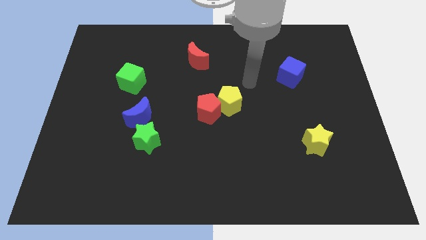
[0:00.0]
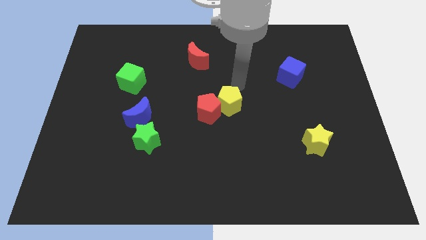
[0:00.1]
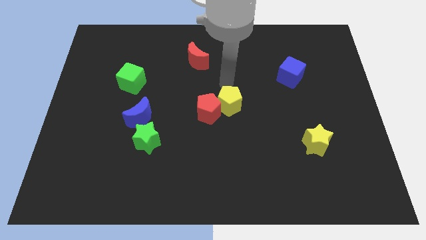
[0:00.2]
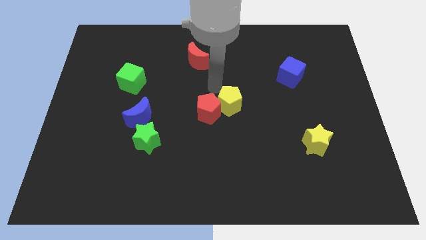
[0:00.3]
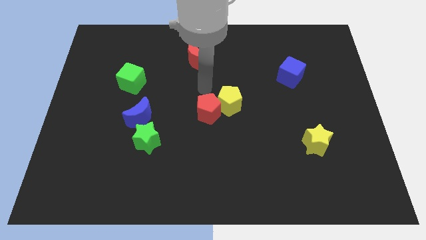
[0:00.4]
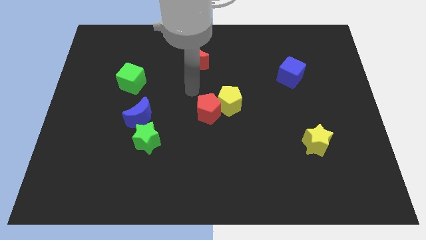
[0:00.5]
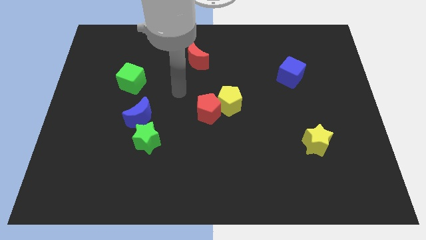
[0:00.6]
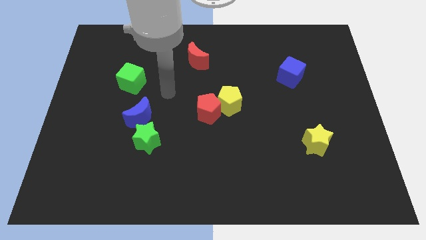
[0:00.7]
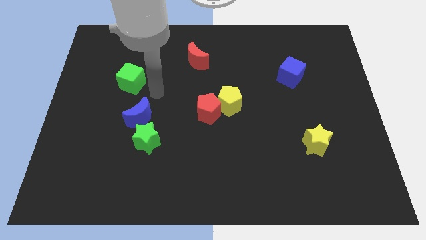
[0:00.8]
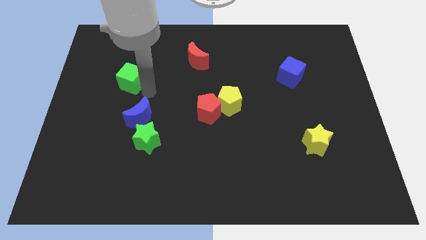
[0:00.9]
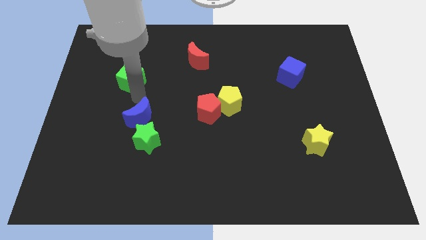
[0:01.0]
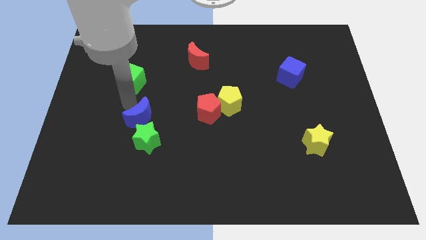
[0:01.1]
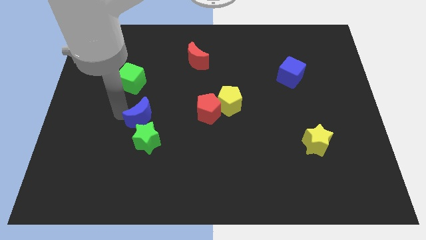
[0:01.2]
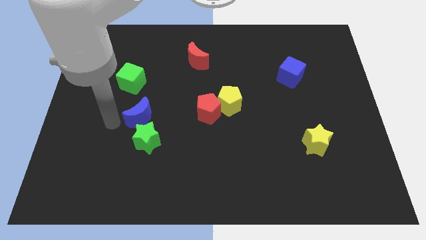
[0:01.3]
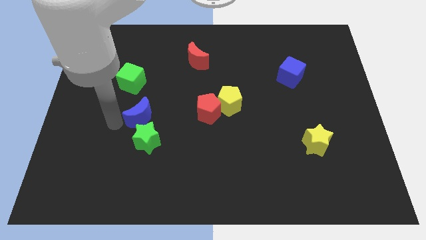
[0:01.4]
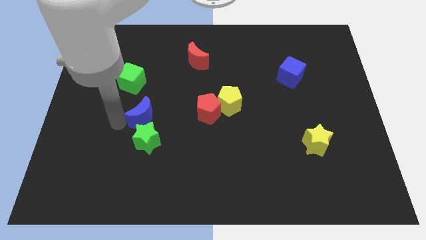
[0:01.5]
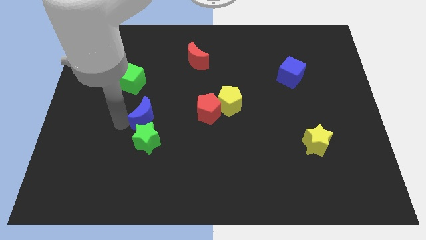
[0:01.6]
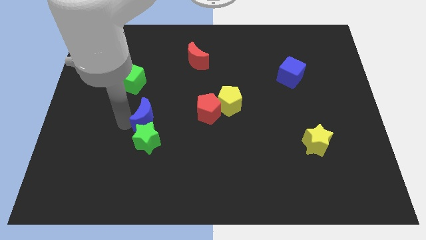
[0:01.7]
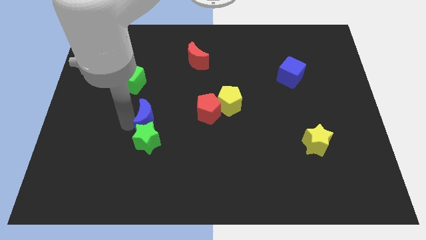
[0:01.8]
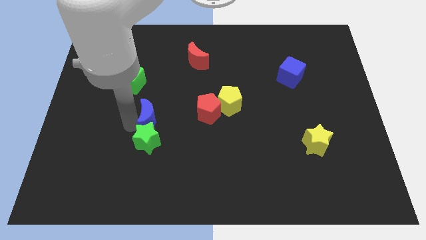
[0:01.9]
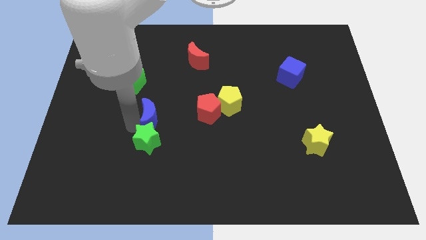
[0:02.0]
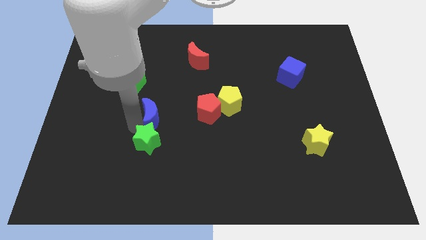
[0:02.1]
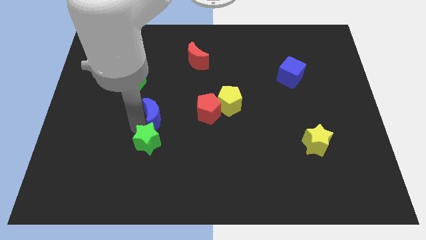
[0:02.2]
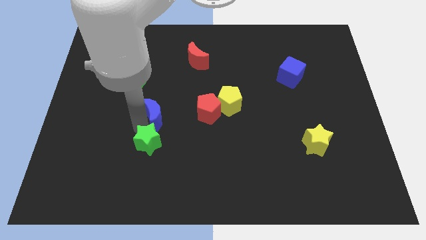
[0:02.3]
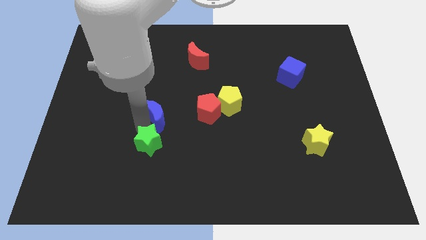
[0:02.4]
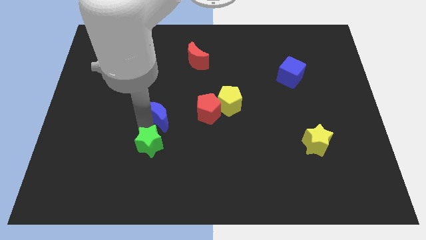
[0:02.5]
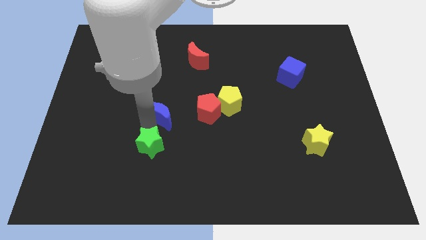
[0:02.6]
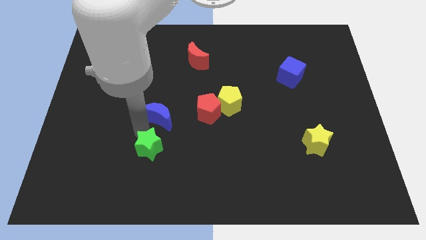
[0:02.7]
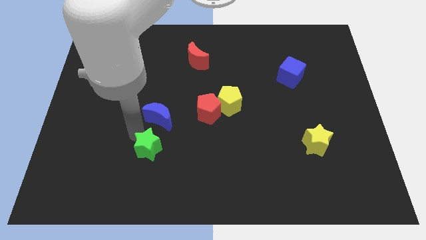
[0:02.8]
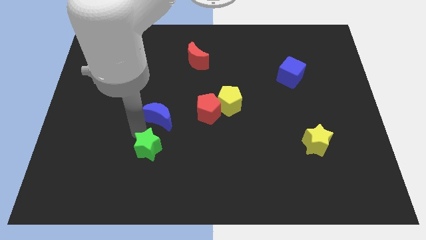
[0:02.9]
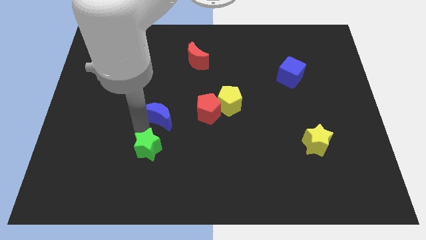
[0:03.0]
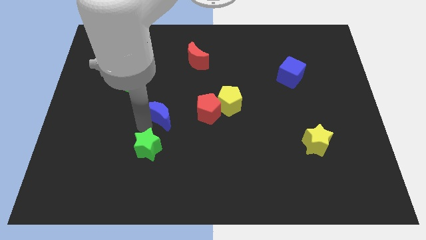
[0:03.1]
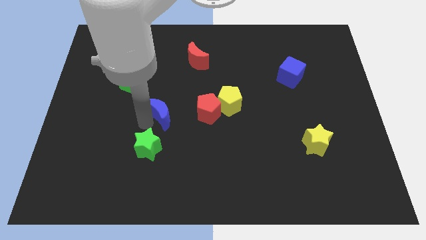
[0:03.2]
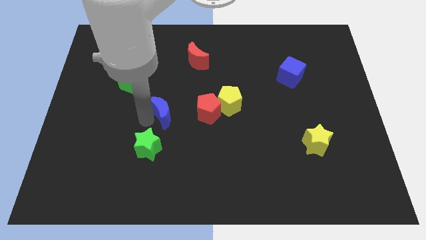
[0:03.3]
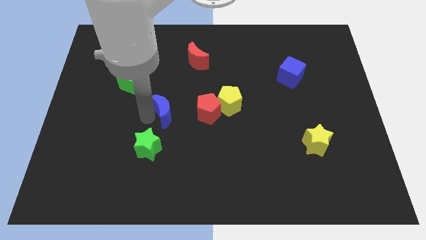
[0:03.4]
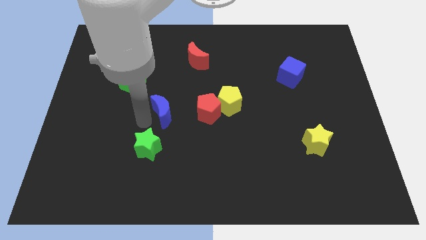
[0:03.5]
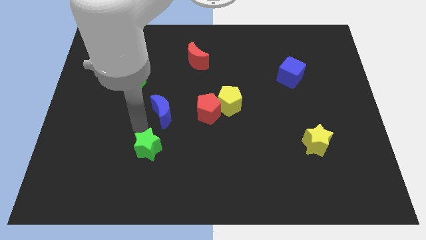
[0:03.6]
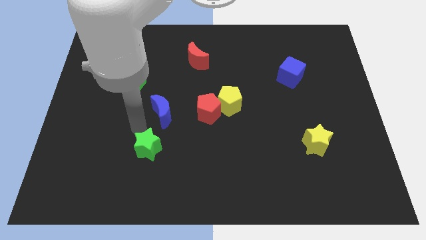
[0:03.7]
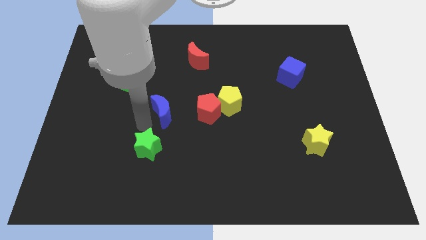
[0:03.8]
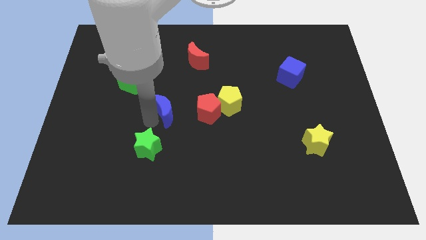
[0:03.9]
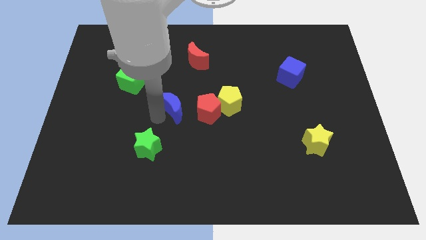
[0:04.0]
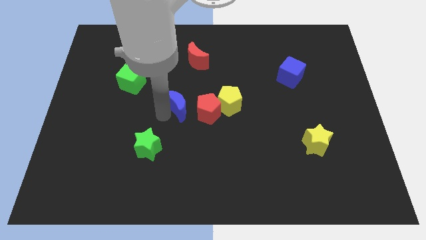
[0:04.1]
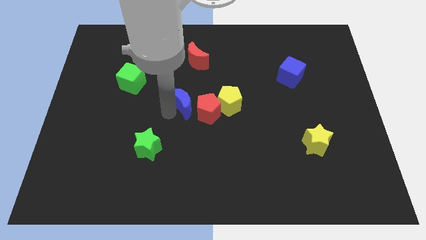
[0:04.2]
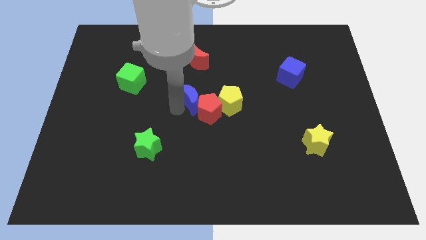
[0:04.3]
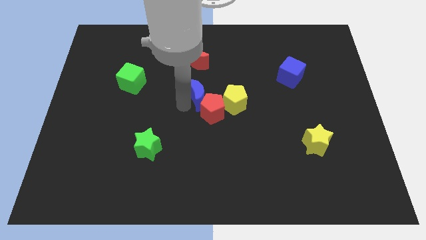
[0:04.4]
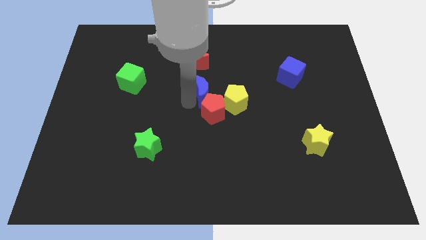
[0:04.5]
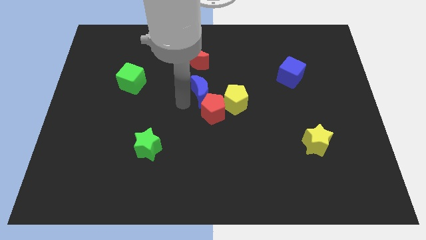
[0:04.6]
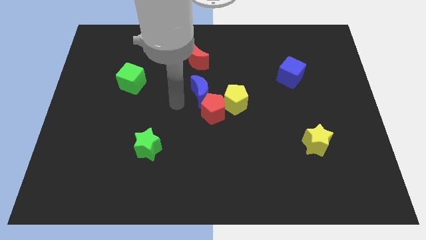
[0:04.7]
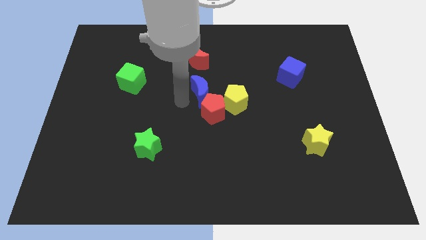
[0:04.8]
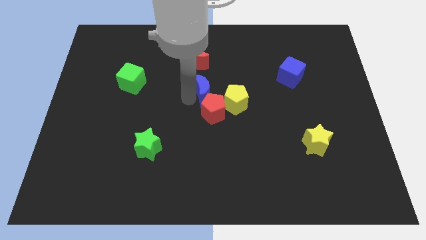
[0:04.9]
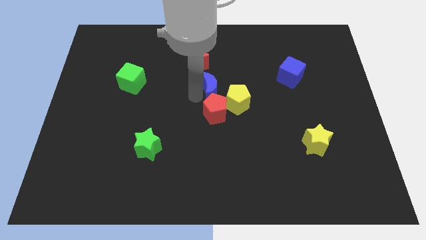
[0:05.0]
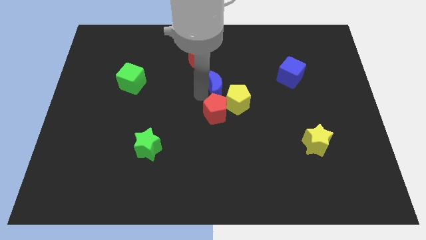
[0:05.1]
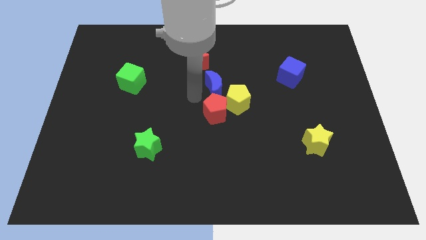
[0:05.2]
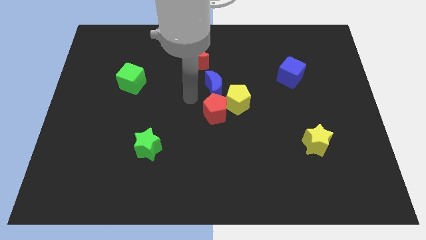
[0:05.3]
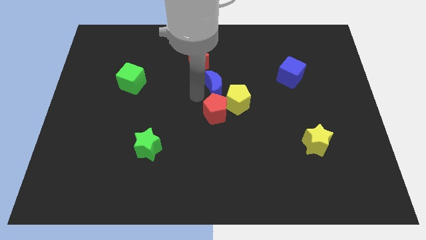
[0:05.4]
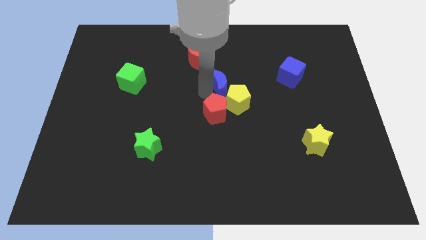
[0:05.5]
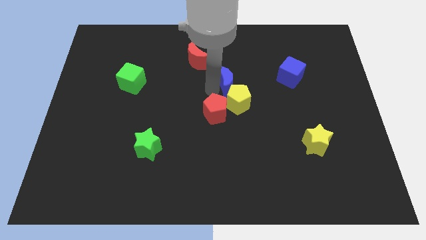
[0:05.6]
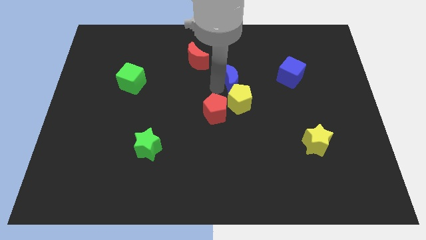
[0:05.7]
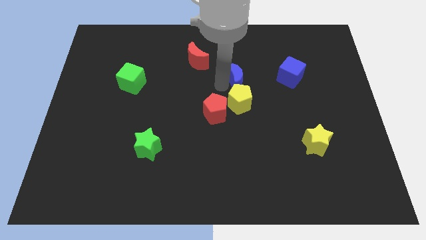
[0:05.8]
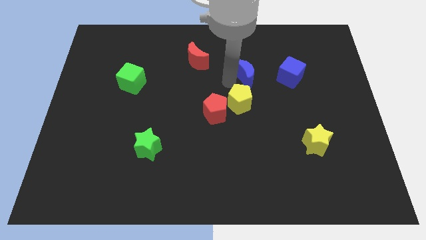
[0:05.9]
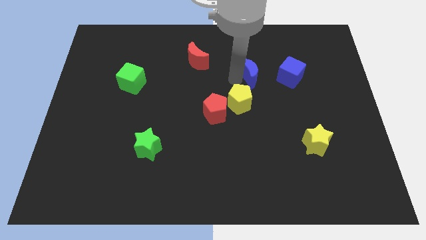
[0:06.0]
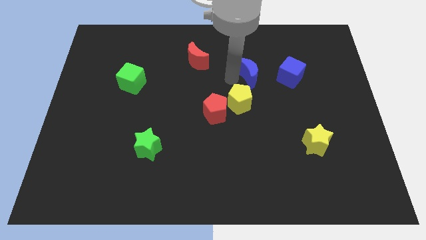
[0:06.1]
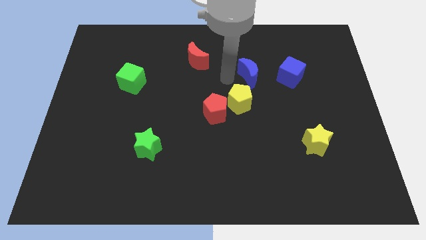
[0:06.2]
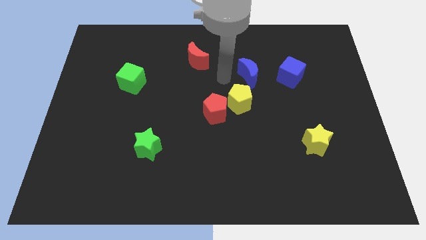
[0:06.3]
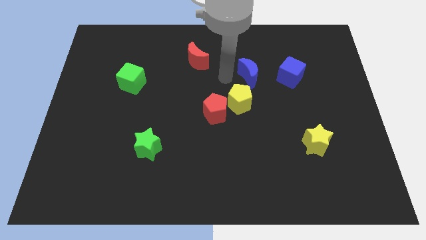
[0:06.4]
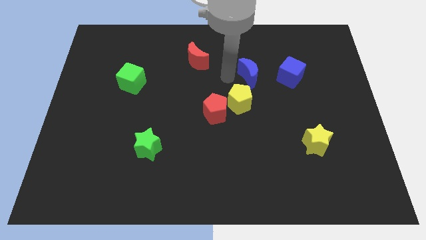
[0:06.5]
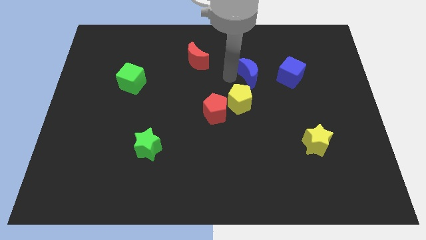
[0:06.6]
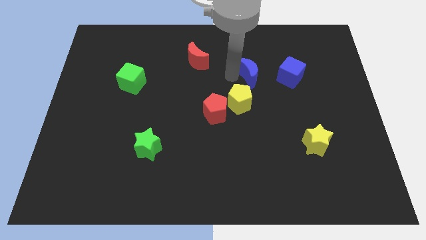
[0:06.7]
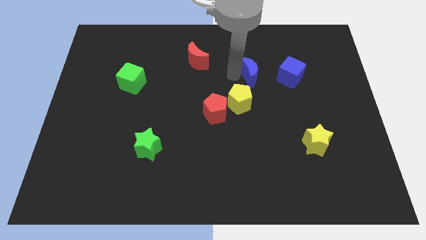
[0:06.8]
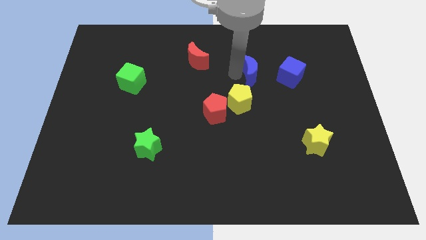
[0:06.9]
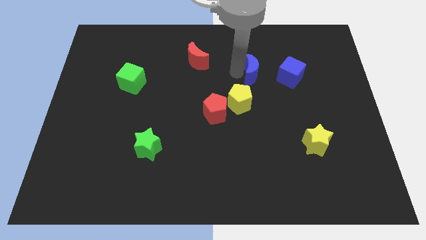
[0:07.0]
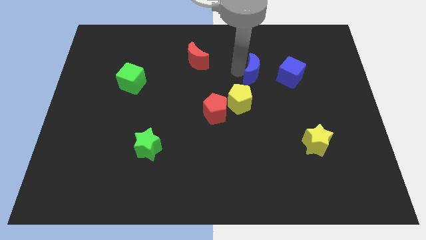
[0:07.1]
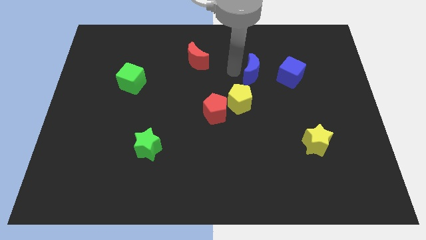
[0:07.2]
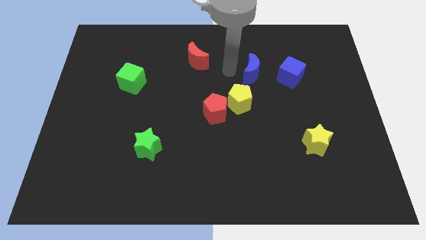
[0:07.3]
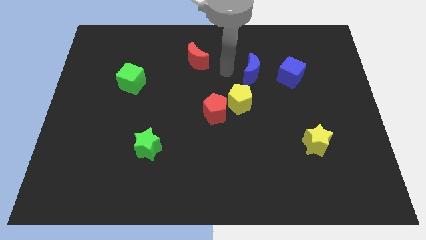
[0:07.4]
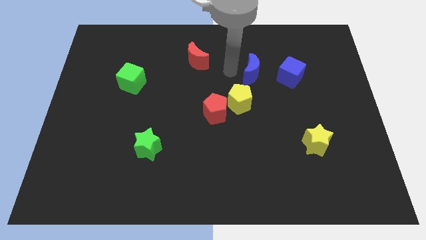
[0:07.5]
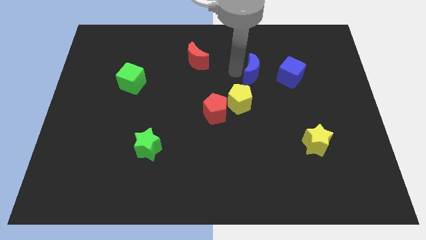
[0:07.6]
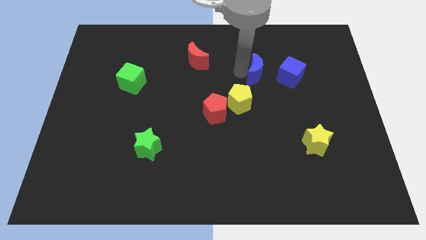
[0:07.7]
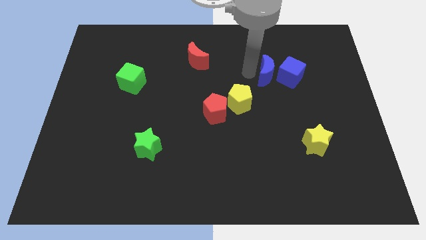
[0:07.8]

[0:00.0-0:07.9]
put the blue moon to the blue cube

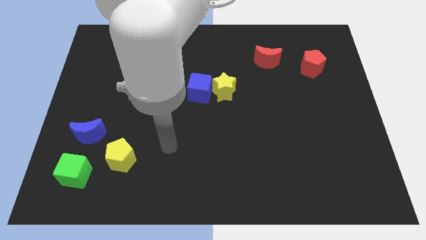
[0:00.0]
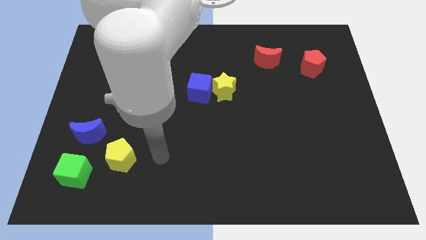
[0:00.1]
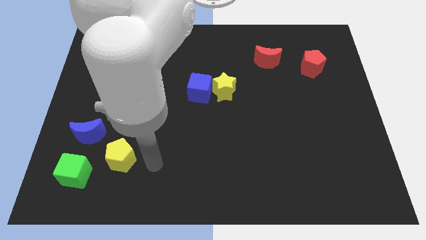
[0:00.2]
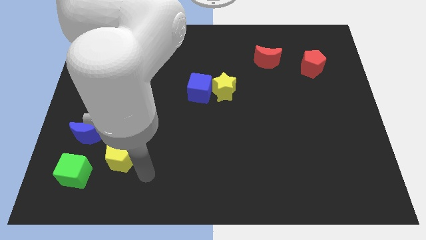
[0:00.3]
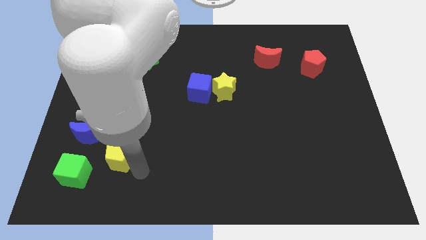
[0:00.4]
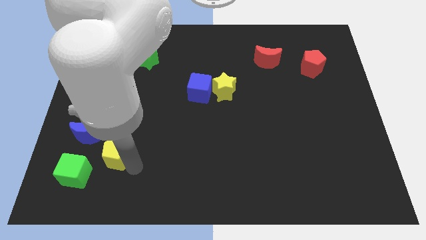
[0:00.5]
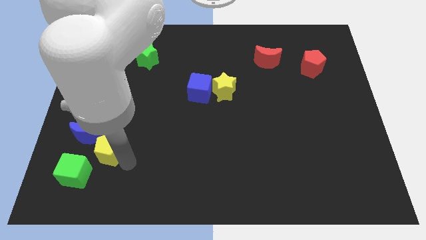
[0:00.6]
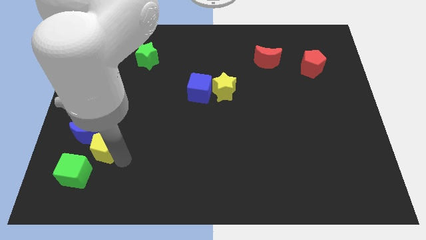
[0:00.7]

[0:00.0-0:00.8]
slide the yellow pentagon next to the blue moon
